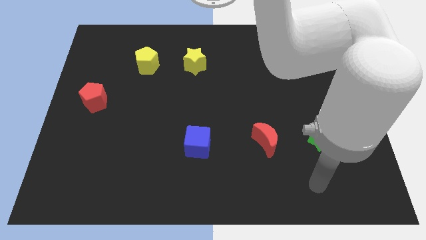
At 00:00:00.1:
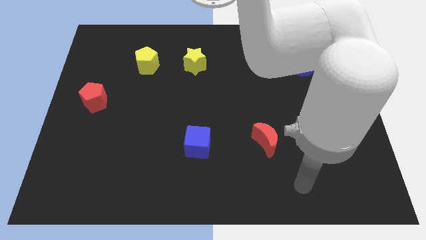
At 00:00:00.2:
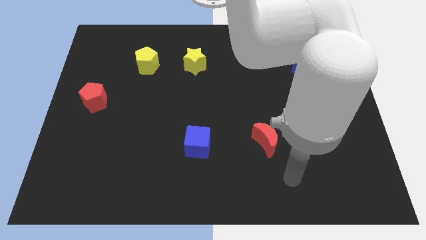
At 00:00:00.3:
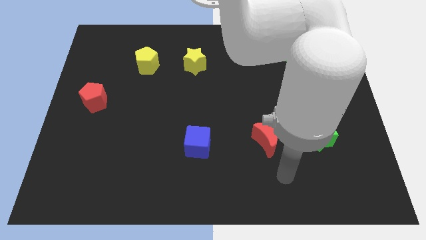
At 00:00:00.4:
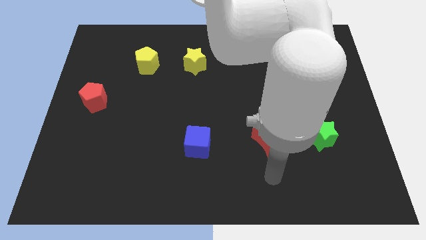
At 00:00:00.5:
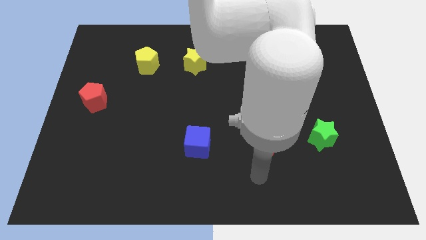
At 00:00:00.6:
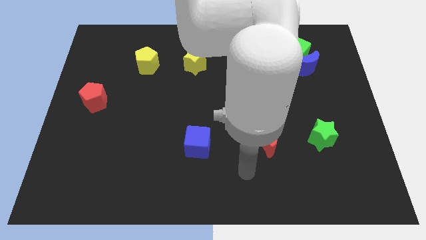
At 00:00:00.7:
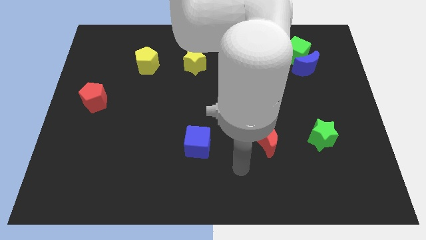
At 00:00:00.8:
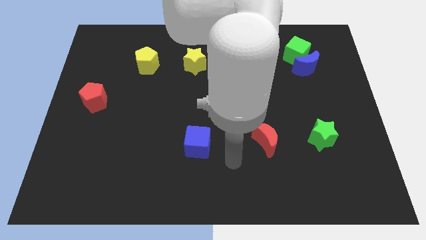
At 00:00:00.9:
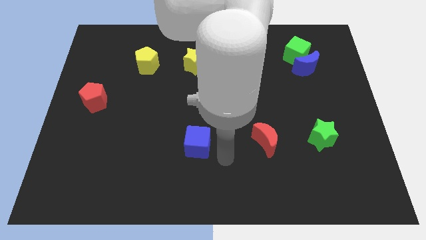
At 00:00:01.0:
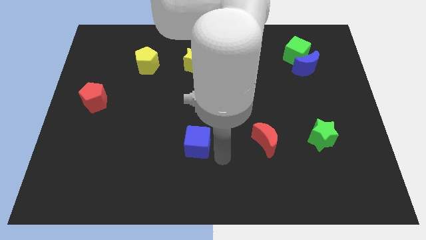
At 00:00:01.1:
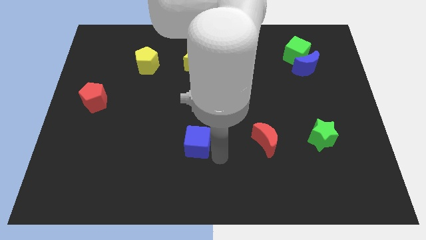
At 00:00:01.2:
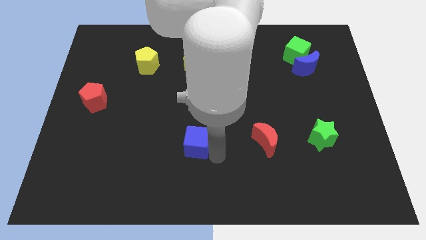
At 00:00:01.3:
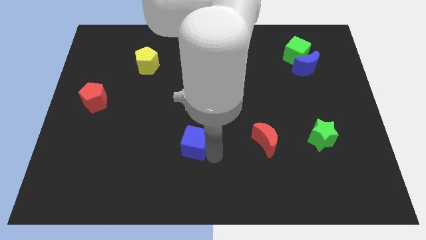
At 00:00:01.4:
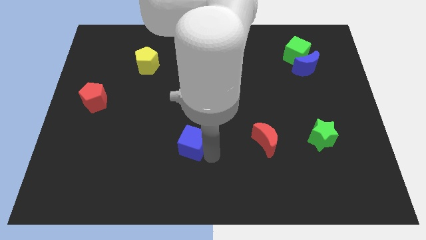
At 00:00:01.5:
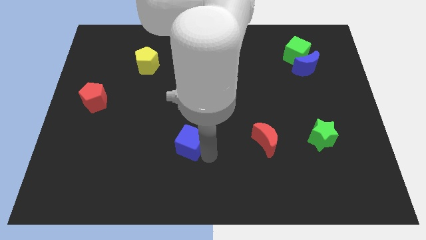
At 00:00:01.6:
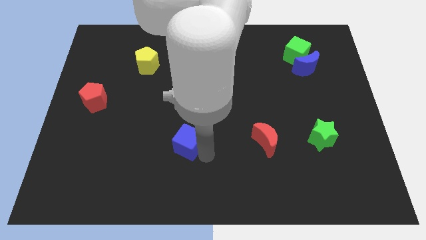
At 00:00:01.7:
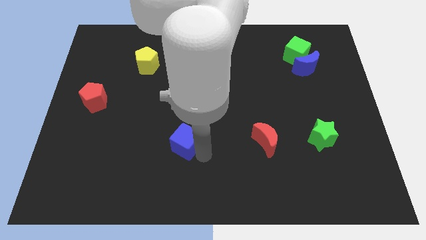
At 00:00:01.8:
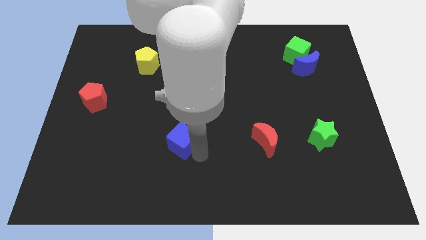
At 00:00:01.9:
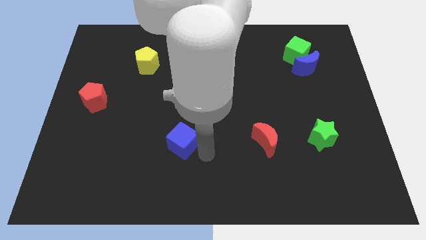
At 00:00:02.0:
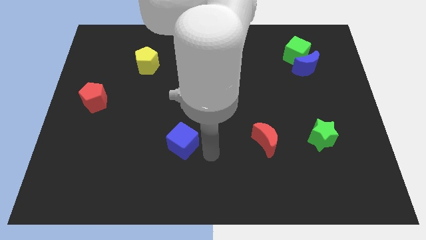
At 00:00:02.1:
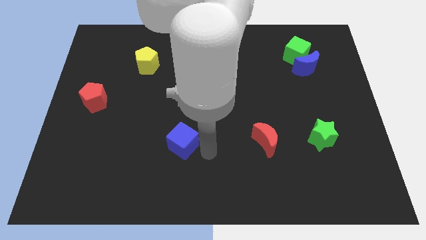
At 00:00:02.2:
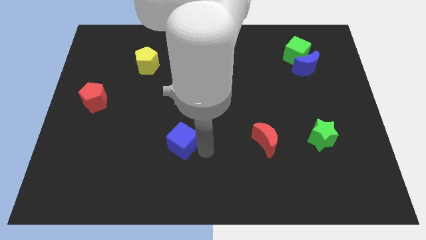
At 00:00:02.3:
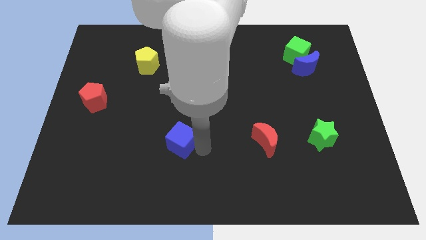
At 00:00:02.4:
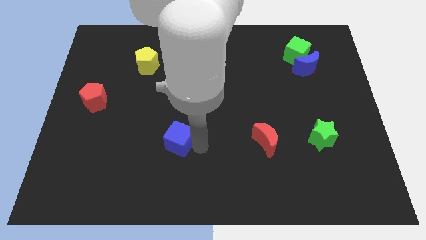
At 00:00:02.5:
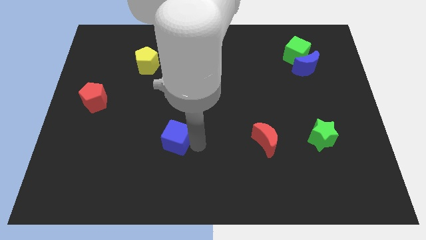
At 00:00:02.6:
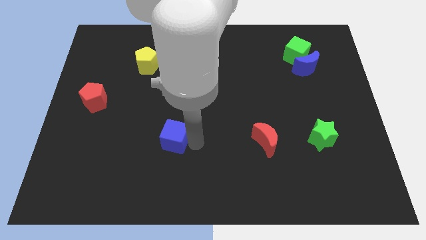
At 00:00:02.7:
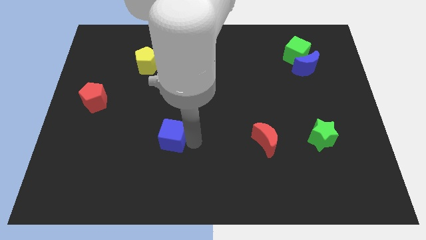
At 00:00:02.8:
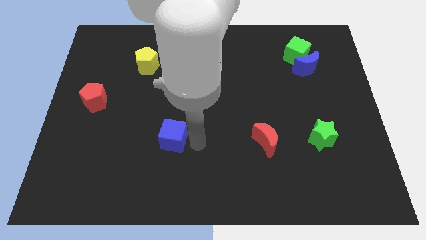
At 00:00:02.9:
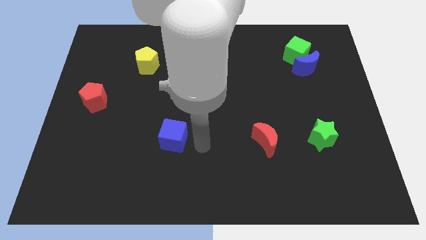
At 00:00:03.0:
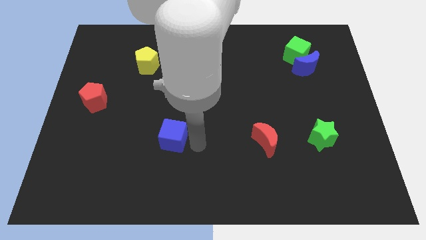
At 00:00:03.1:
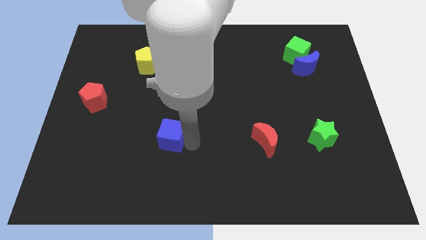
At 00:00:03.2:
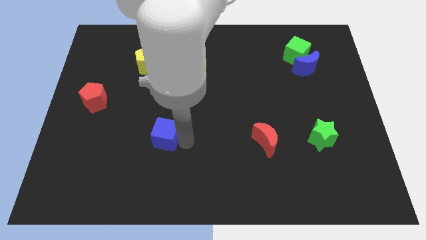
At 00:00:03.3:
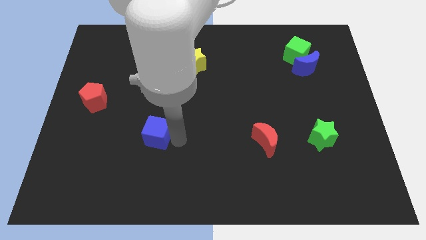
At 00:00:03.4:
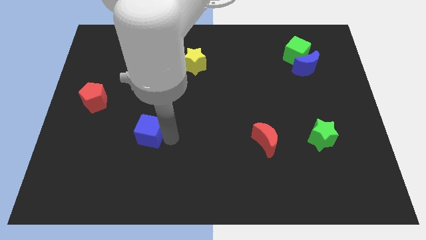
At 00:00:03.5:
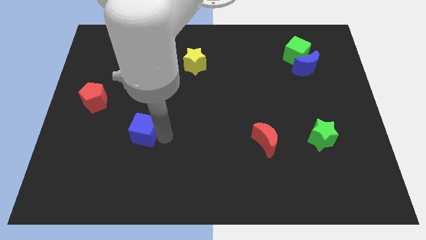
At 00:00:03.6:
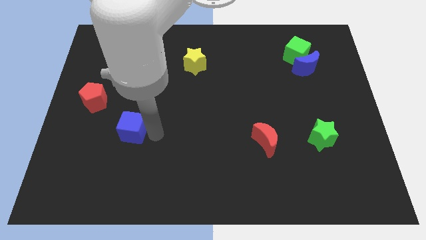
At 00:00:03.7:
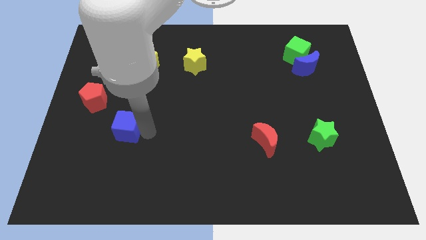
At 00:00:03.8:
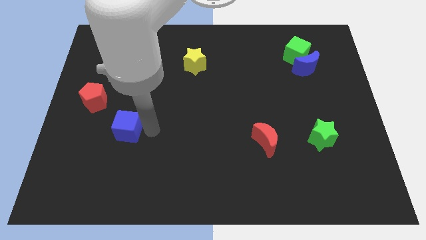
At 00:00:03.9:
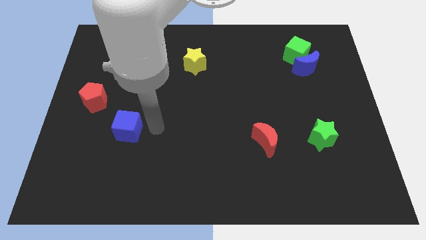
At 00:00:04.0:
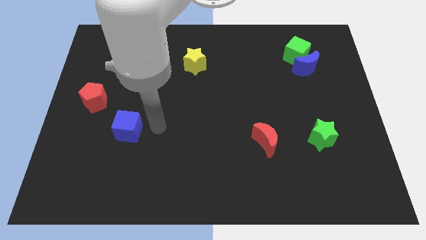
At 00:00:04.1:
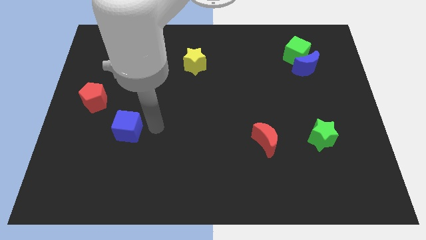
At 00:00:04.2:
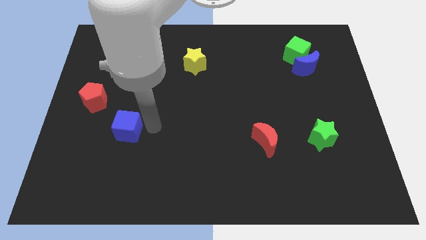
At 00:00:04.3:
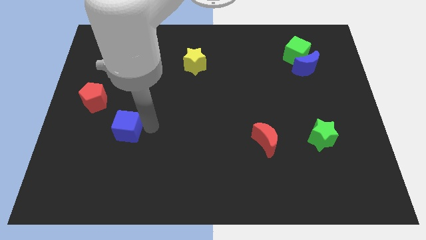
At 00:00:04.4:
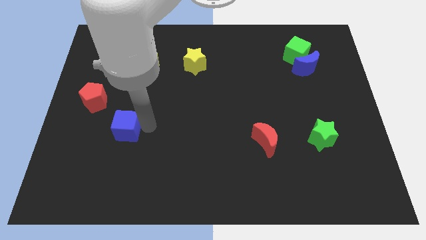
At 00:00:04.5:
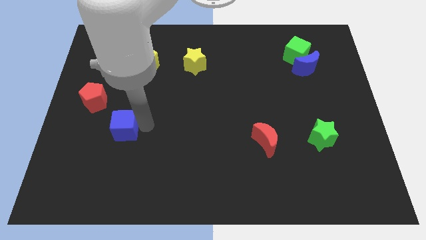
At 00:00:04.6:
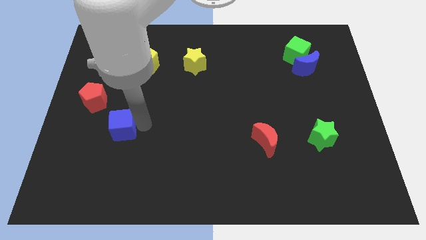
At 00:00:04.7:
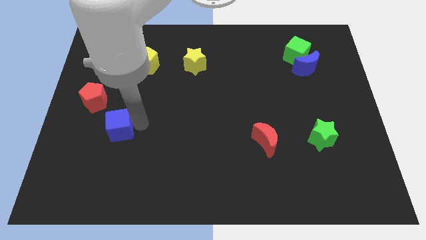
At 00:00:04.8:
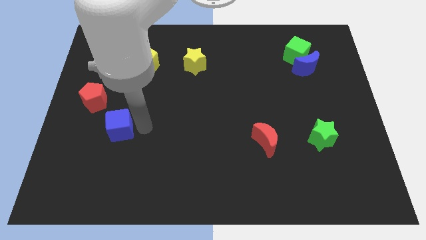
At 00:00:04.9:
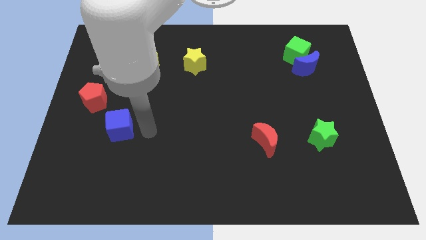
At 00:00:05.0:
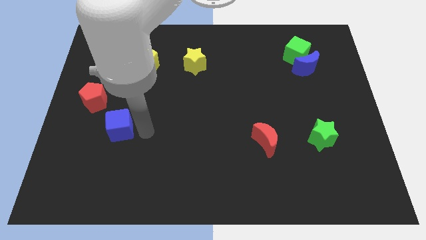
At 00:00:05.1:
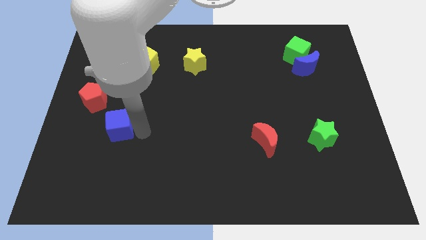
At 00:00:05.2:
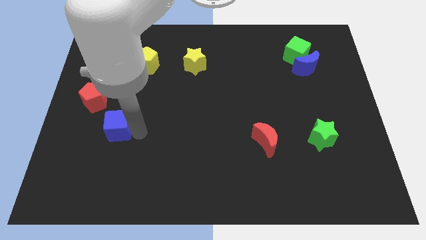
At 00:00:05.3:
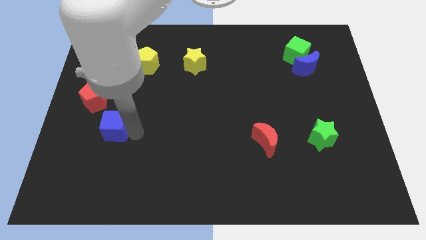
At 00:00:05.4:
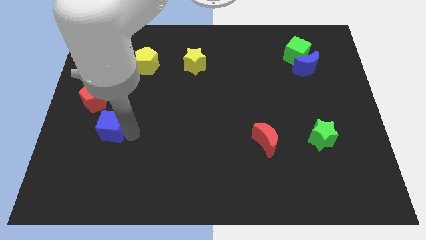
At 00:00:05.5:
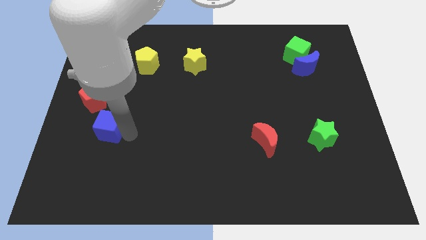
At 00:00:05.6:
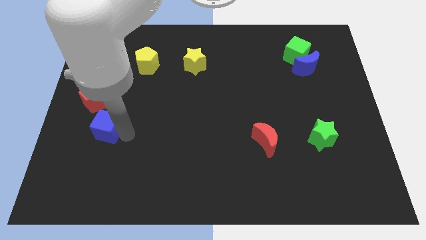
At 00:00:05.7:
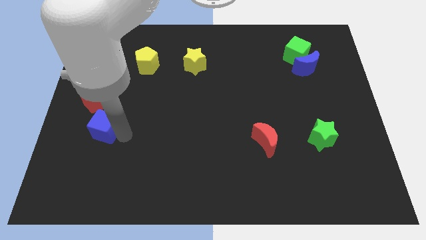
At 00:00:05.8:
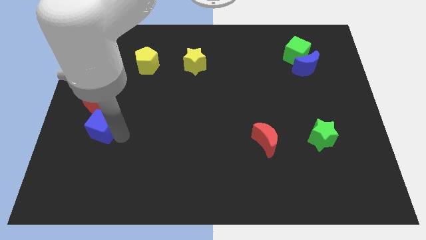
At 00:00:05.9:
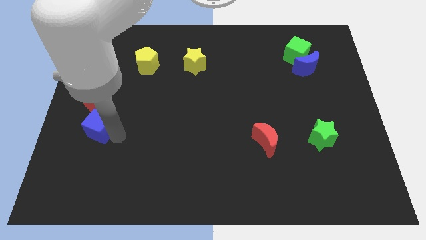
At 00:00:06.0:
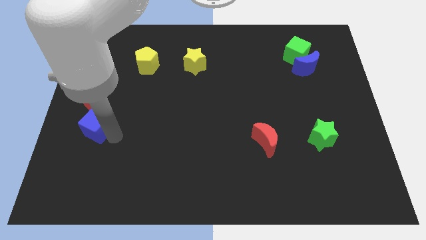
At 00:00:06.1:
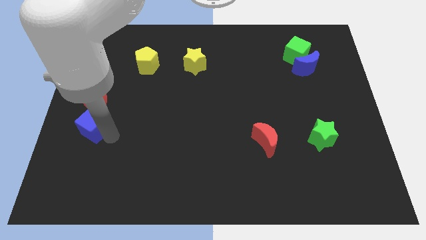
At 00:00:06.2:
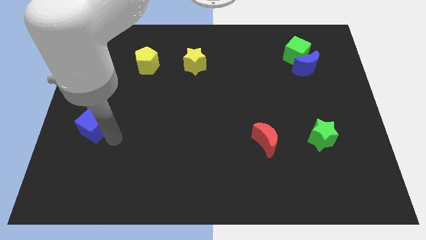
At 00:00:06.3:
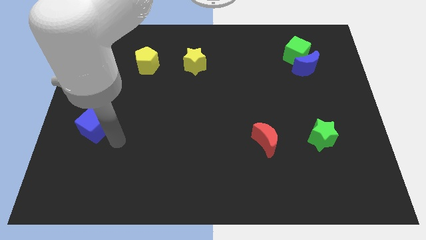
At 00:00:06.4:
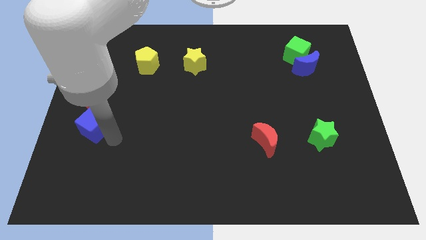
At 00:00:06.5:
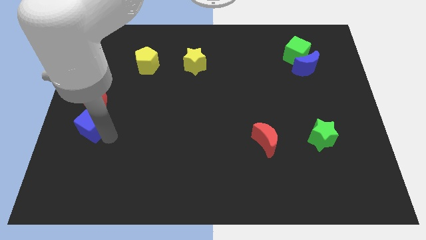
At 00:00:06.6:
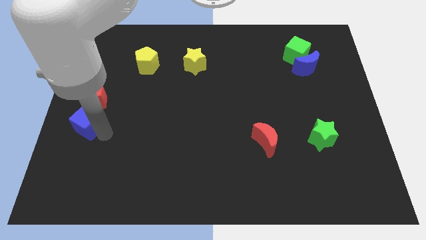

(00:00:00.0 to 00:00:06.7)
put the blue cube to the left side

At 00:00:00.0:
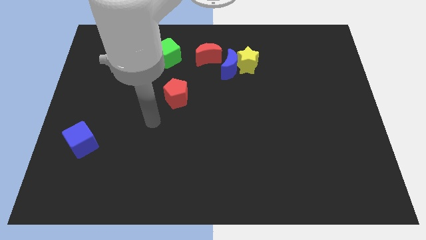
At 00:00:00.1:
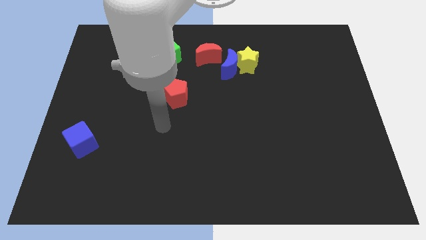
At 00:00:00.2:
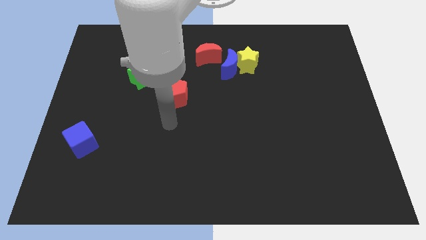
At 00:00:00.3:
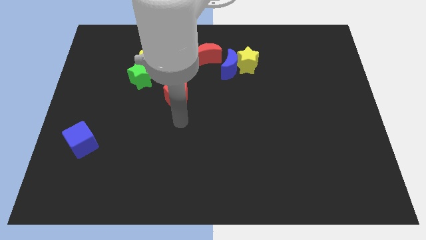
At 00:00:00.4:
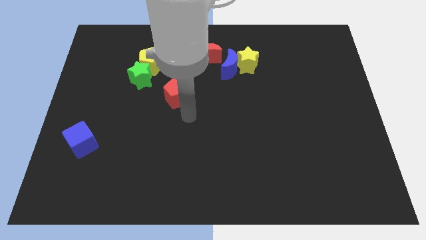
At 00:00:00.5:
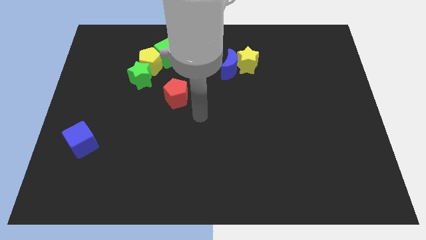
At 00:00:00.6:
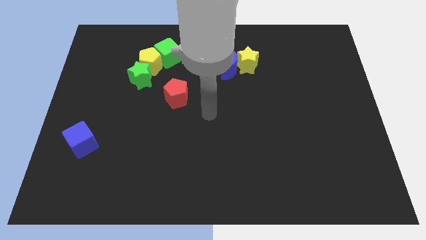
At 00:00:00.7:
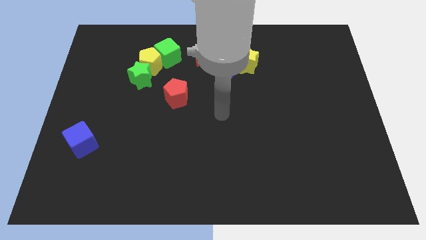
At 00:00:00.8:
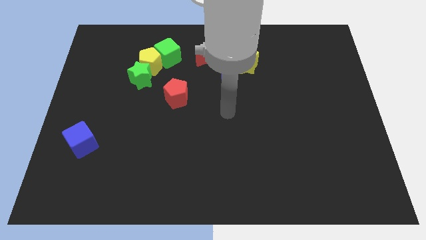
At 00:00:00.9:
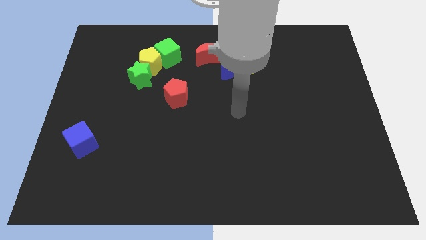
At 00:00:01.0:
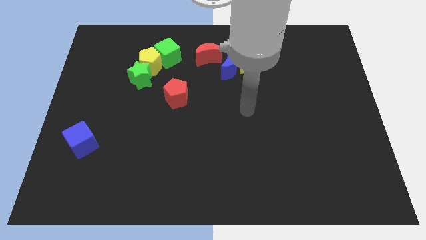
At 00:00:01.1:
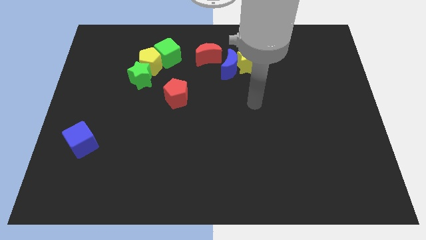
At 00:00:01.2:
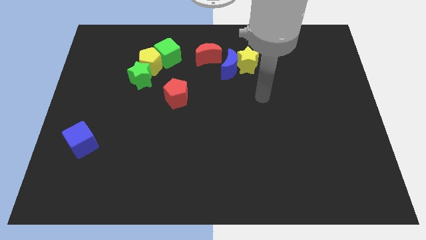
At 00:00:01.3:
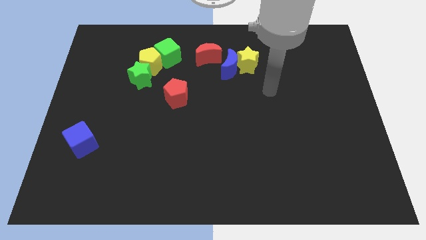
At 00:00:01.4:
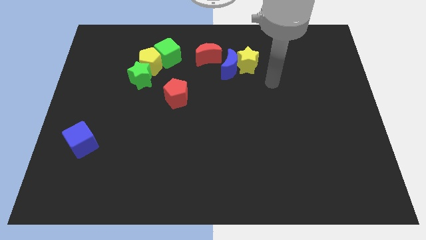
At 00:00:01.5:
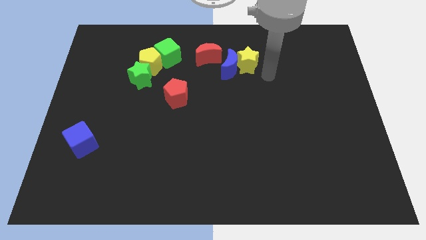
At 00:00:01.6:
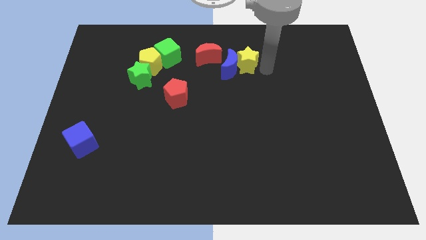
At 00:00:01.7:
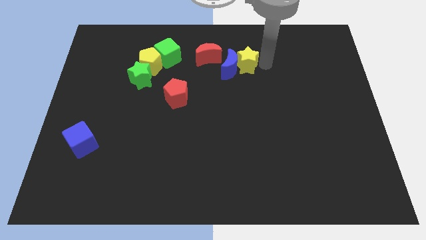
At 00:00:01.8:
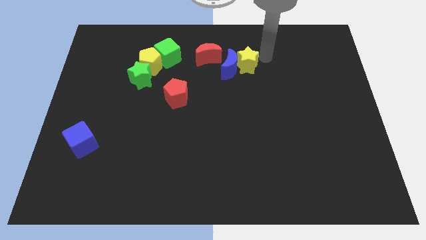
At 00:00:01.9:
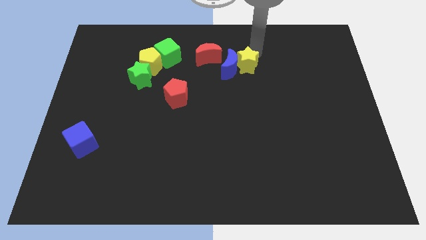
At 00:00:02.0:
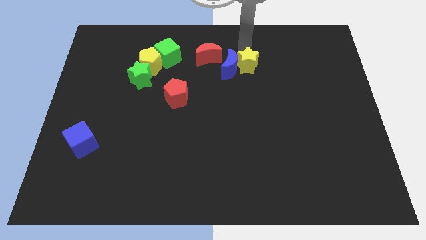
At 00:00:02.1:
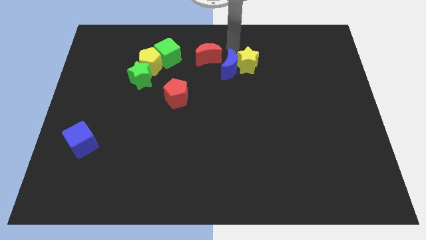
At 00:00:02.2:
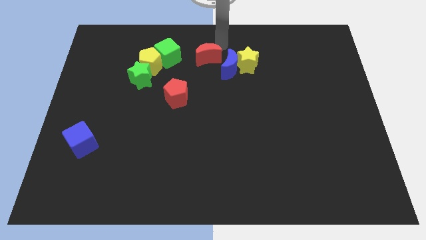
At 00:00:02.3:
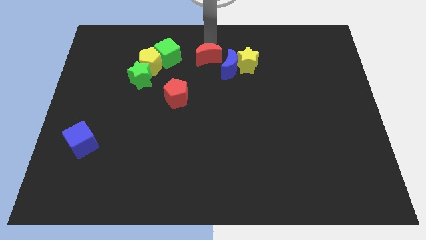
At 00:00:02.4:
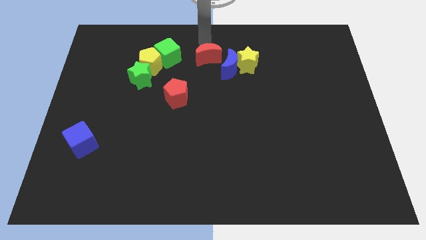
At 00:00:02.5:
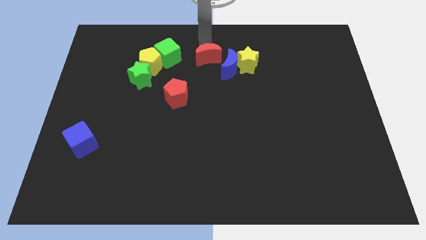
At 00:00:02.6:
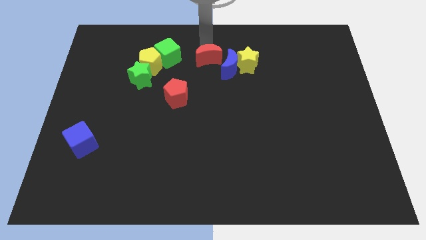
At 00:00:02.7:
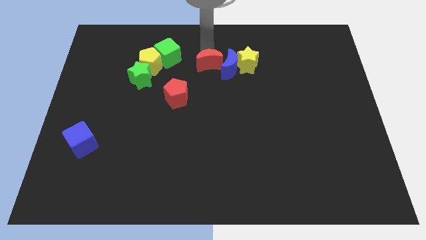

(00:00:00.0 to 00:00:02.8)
push the red moon to the center of the board
